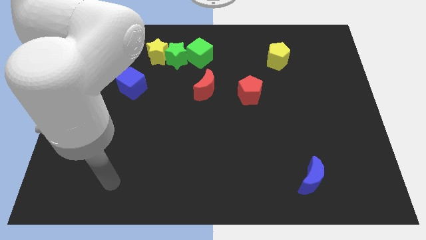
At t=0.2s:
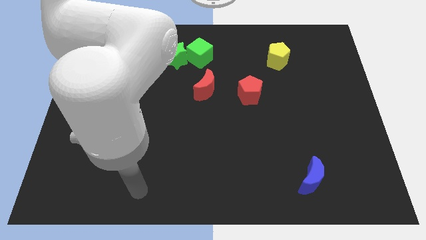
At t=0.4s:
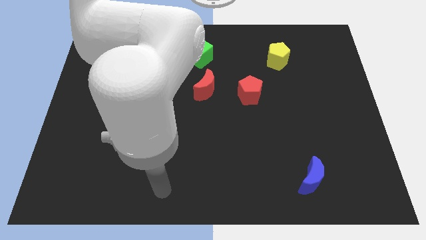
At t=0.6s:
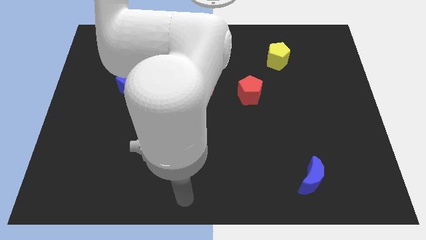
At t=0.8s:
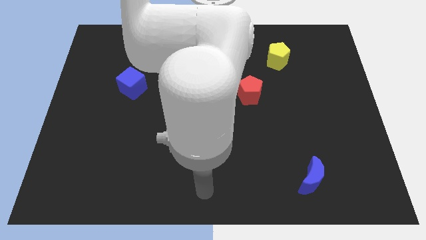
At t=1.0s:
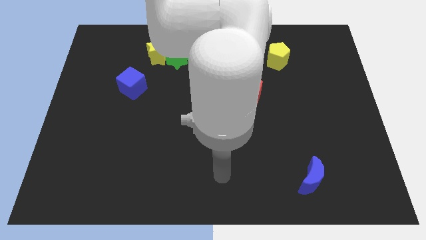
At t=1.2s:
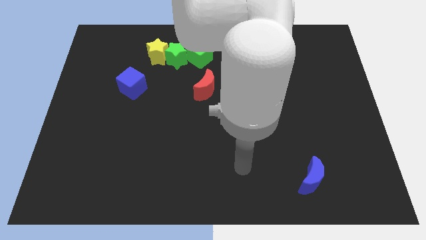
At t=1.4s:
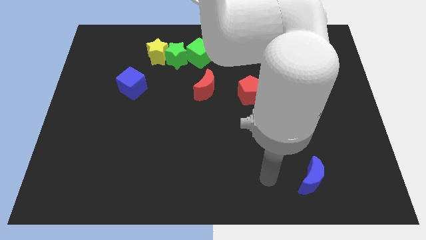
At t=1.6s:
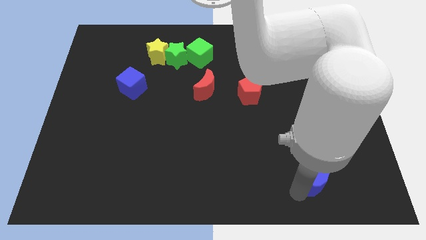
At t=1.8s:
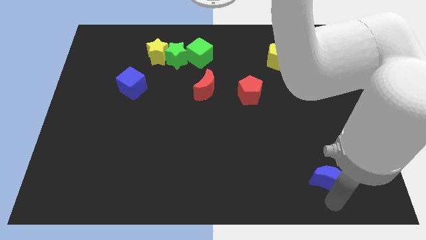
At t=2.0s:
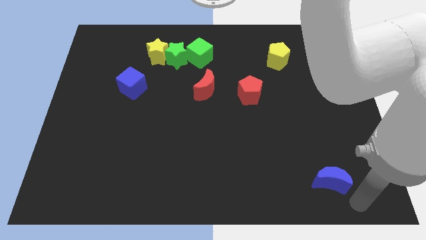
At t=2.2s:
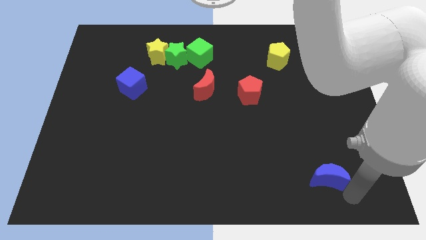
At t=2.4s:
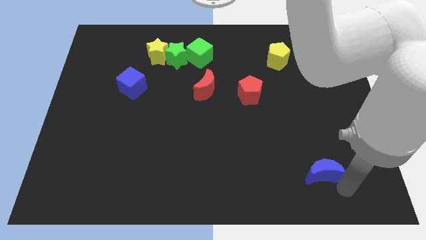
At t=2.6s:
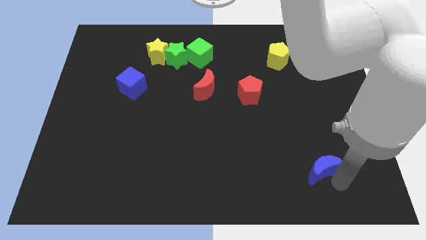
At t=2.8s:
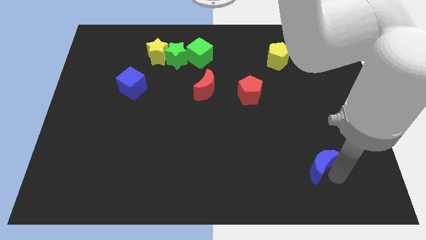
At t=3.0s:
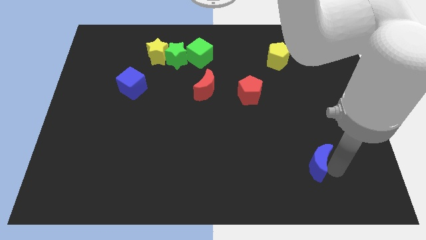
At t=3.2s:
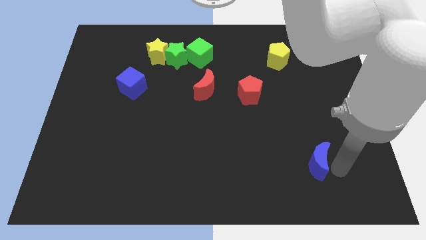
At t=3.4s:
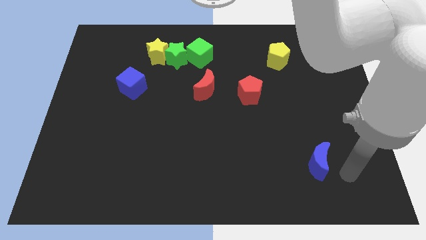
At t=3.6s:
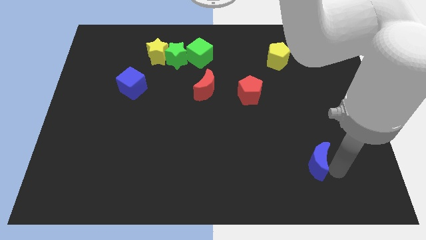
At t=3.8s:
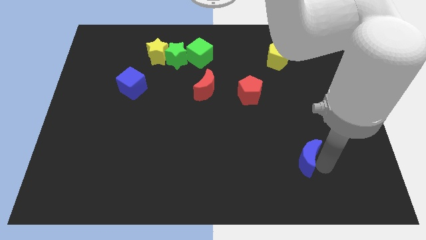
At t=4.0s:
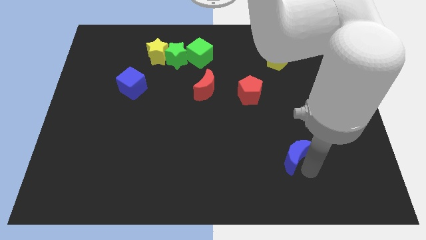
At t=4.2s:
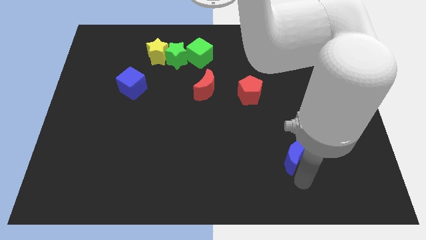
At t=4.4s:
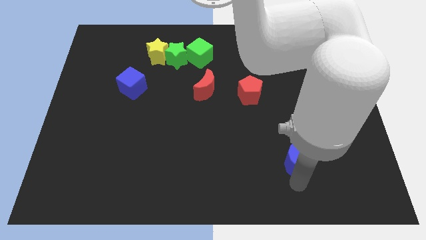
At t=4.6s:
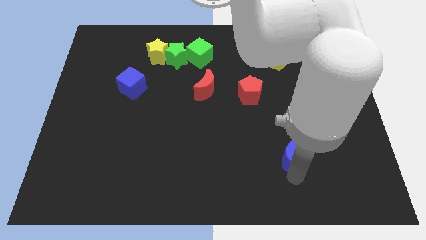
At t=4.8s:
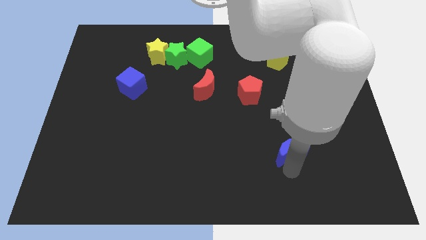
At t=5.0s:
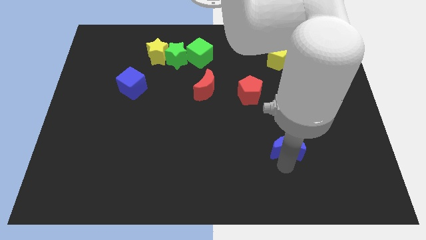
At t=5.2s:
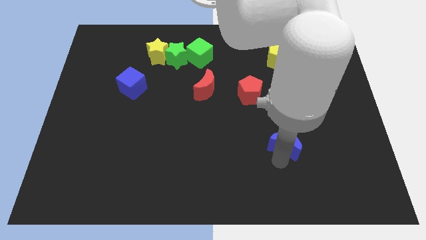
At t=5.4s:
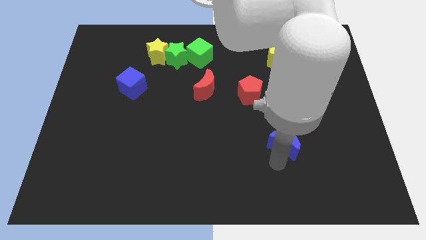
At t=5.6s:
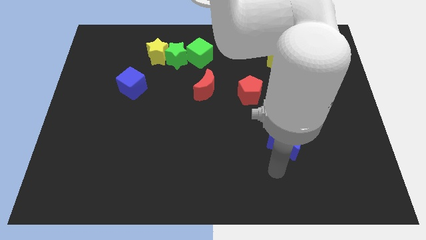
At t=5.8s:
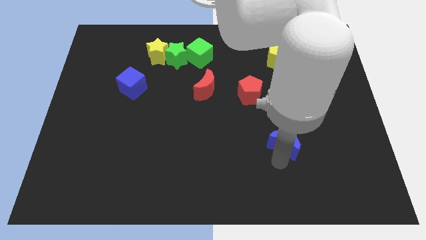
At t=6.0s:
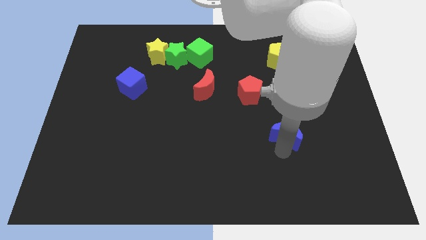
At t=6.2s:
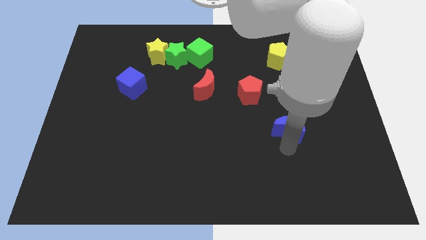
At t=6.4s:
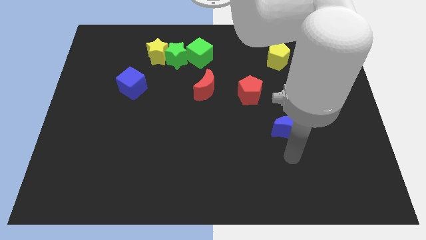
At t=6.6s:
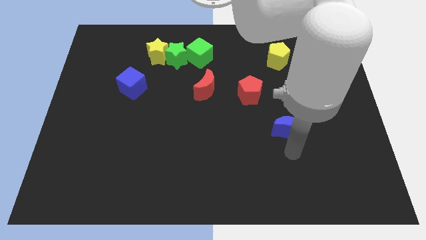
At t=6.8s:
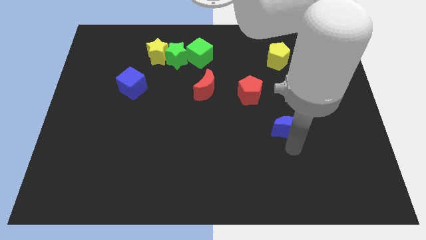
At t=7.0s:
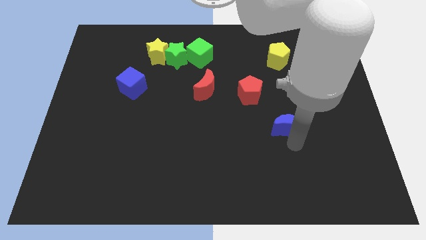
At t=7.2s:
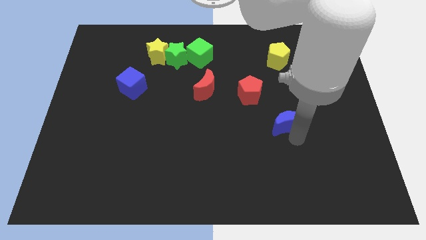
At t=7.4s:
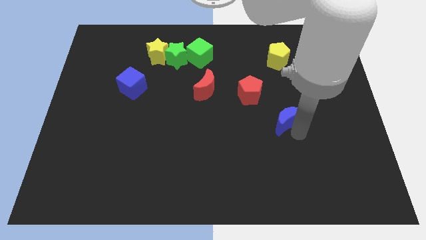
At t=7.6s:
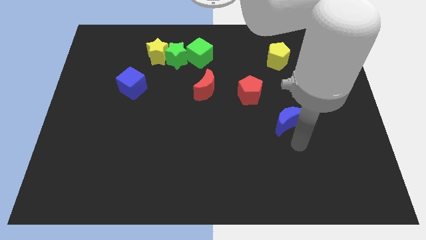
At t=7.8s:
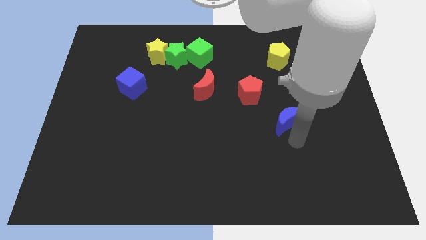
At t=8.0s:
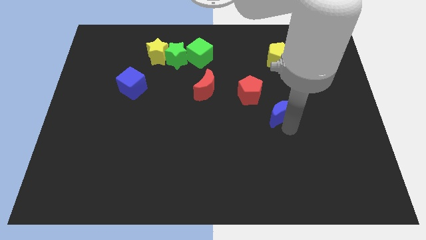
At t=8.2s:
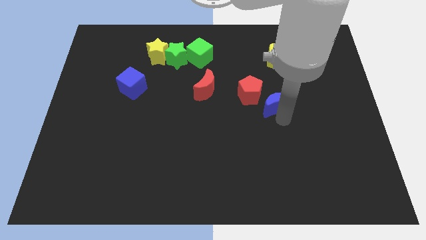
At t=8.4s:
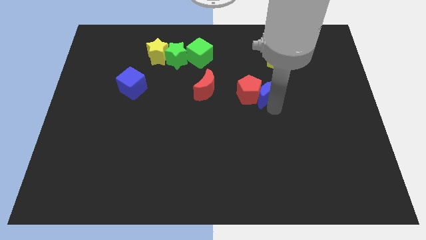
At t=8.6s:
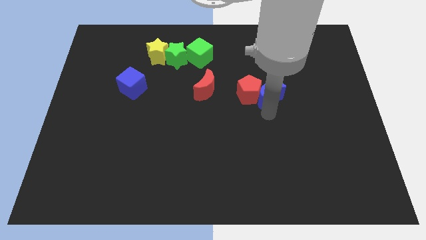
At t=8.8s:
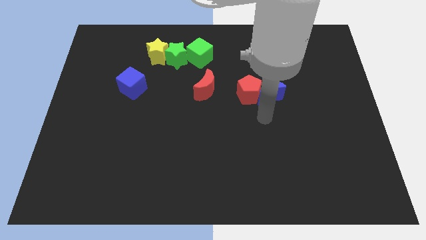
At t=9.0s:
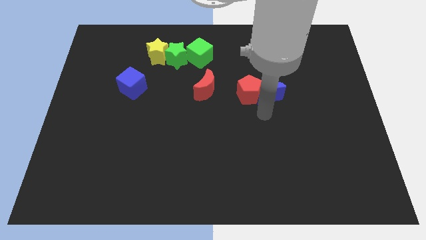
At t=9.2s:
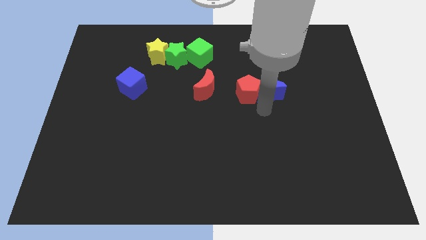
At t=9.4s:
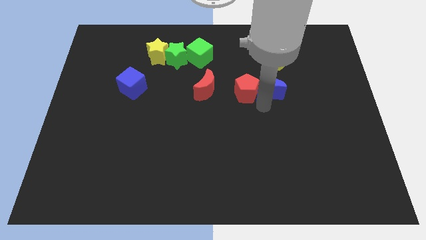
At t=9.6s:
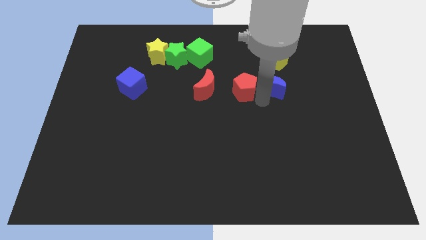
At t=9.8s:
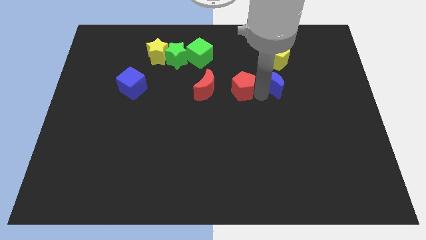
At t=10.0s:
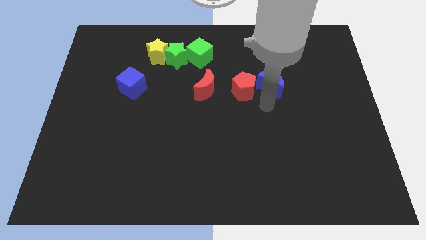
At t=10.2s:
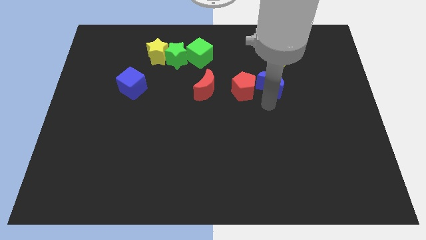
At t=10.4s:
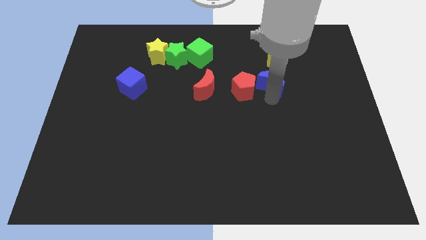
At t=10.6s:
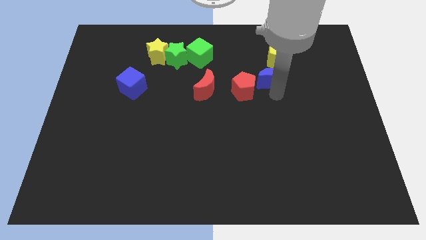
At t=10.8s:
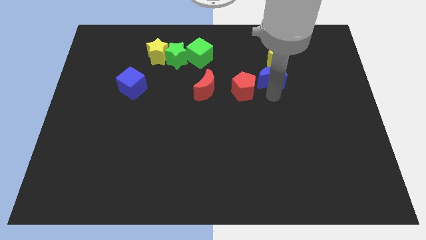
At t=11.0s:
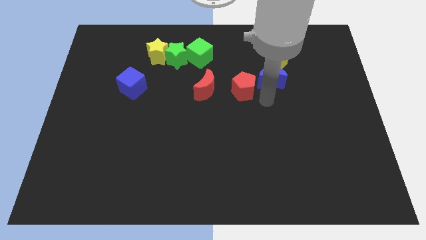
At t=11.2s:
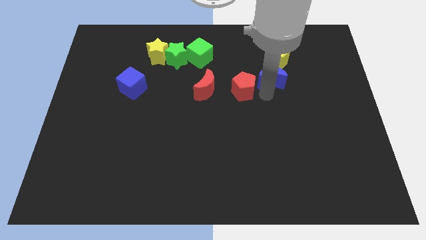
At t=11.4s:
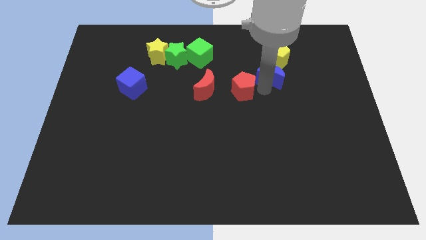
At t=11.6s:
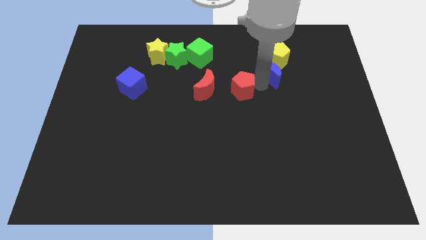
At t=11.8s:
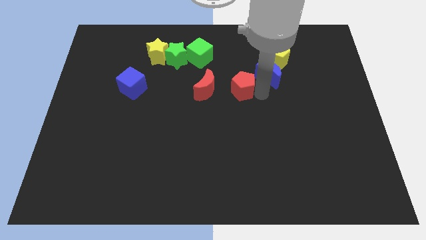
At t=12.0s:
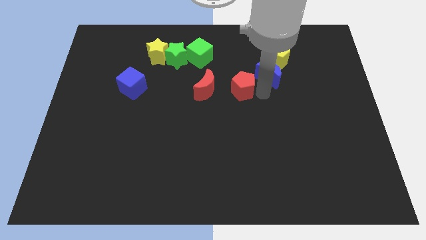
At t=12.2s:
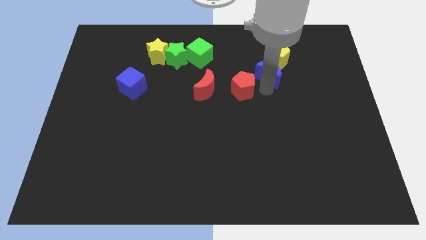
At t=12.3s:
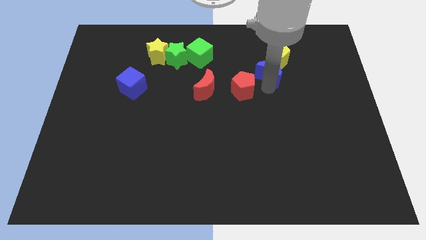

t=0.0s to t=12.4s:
move the blue moon close to the yellow pentagon

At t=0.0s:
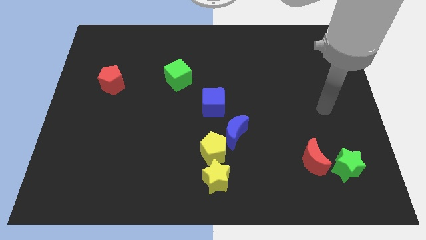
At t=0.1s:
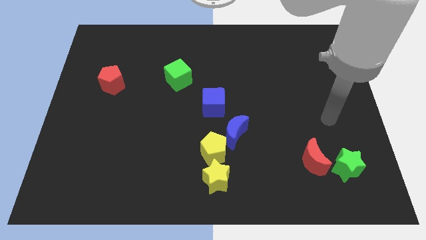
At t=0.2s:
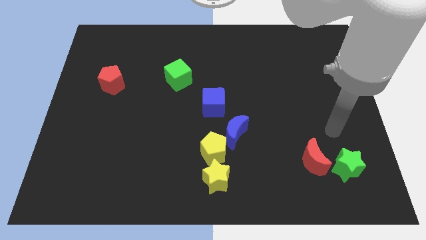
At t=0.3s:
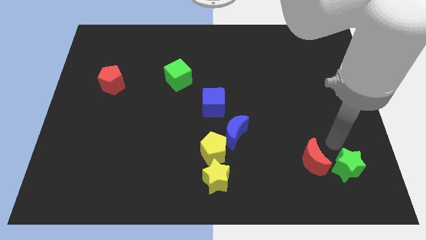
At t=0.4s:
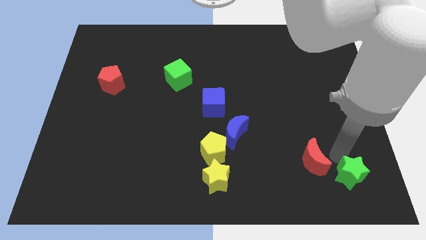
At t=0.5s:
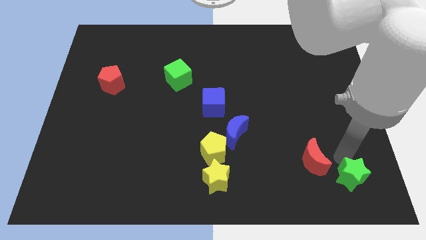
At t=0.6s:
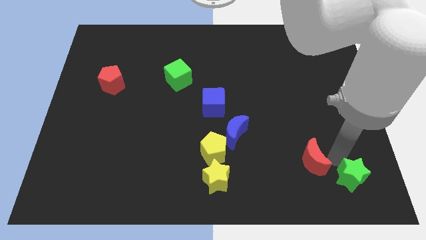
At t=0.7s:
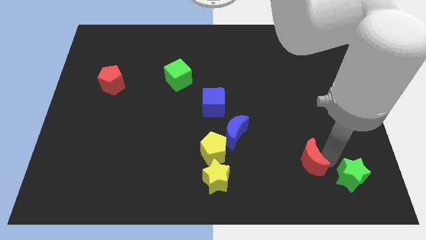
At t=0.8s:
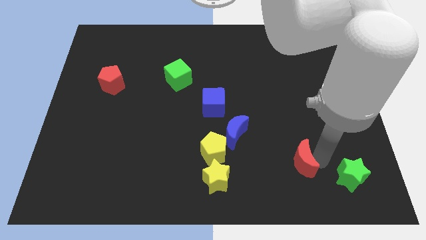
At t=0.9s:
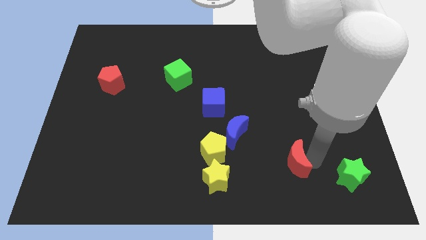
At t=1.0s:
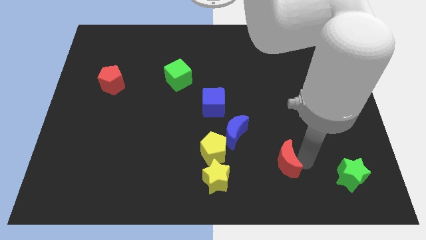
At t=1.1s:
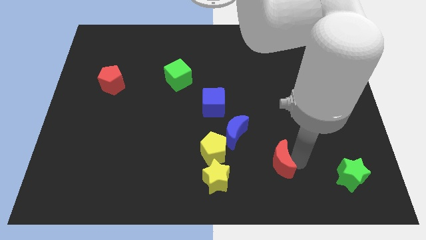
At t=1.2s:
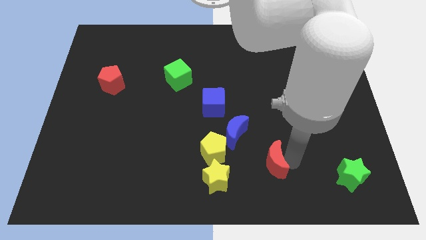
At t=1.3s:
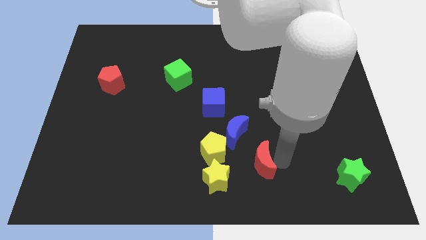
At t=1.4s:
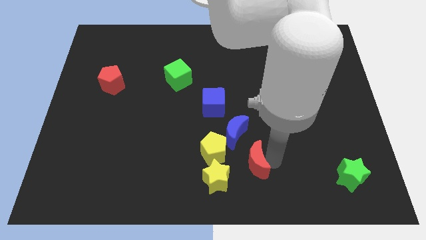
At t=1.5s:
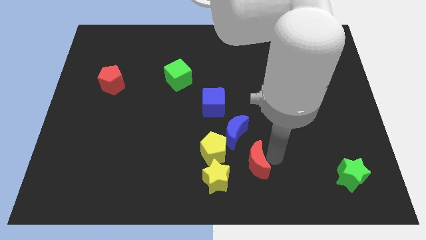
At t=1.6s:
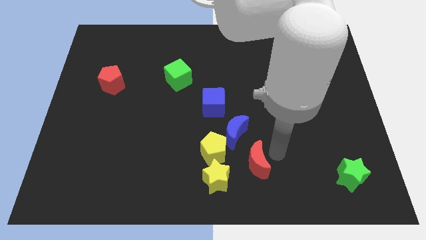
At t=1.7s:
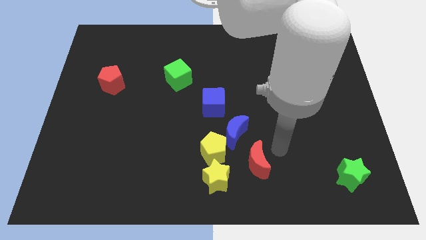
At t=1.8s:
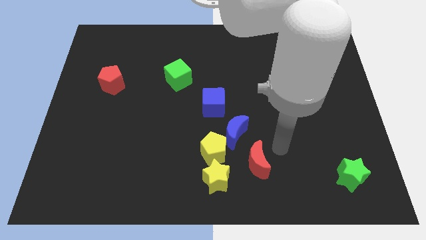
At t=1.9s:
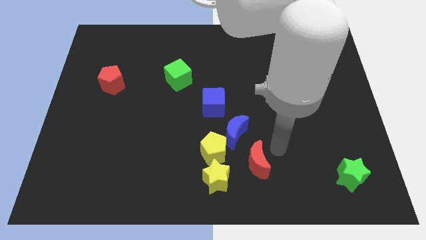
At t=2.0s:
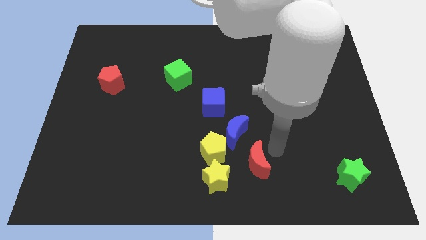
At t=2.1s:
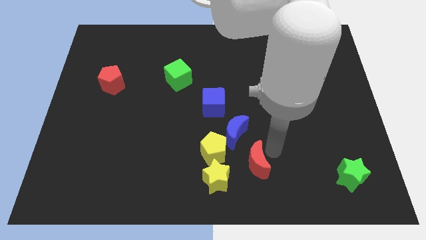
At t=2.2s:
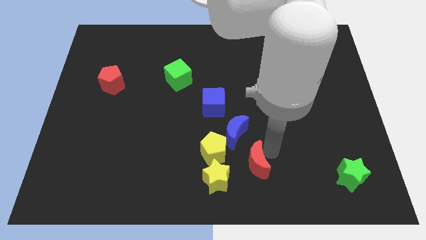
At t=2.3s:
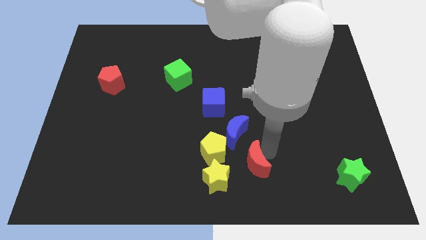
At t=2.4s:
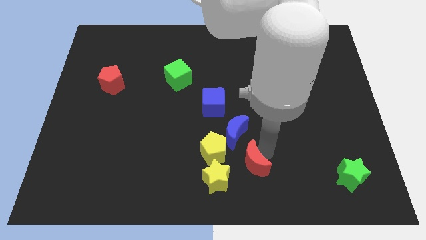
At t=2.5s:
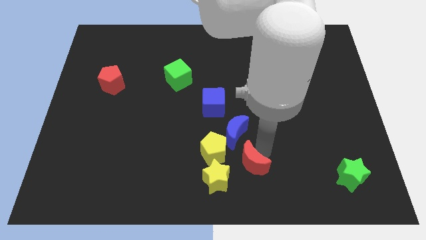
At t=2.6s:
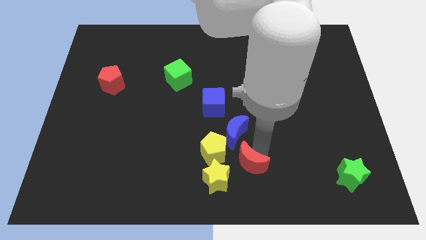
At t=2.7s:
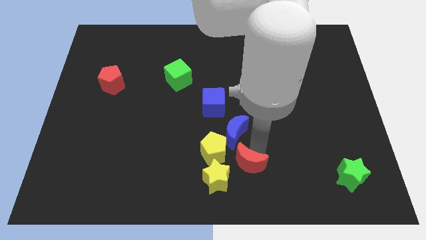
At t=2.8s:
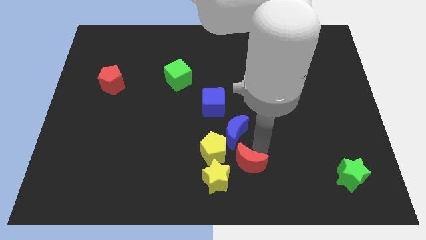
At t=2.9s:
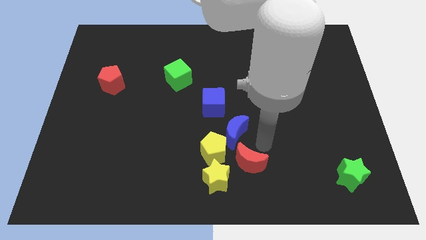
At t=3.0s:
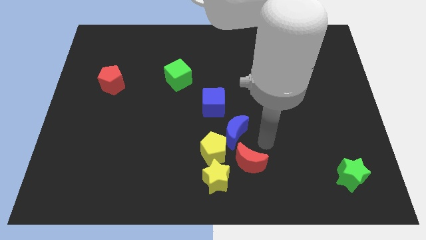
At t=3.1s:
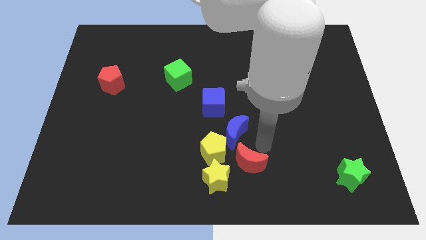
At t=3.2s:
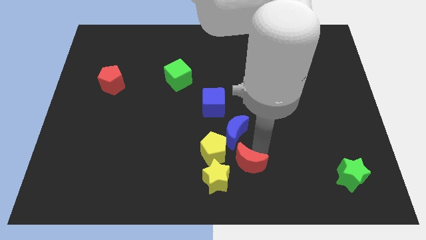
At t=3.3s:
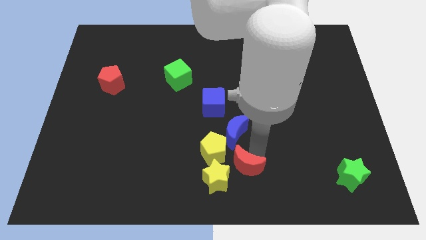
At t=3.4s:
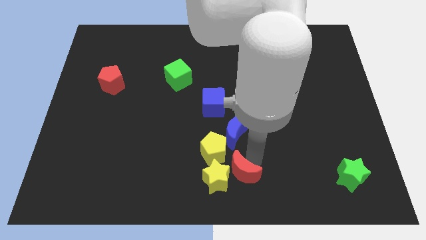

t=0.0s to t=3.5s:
move the red moon next to the yellow star
